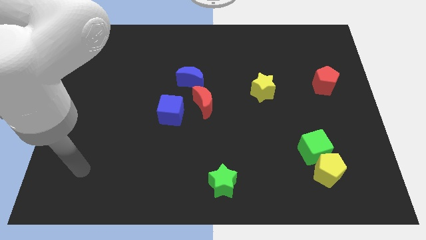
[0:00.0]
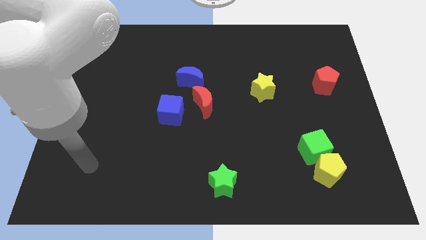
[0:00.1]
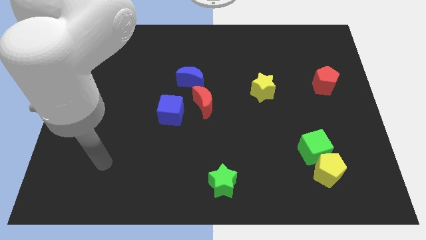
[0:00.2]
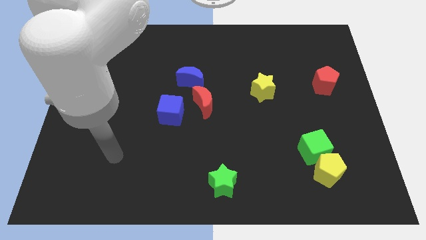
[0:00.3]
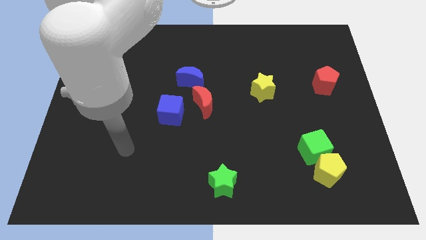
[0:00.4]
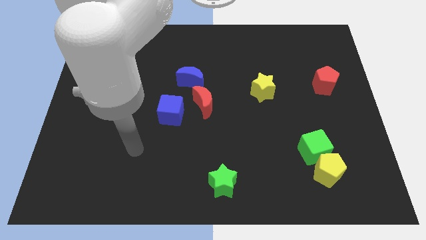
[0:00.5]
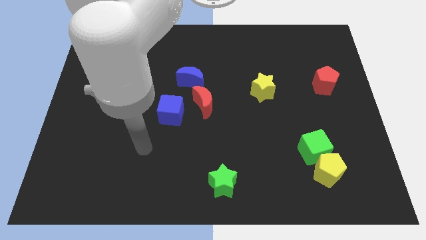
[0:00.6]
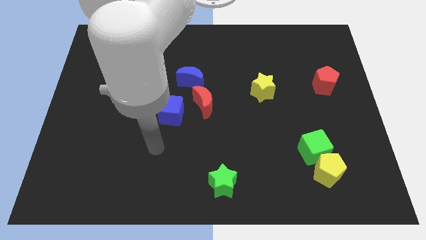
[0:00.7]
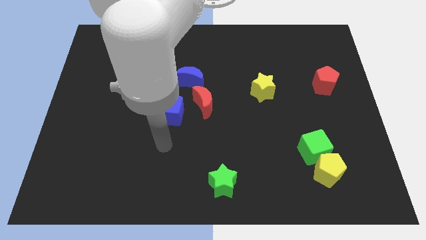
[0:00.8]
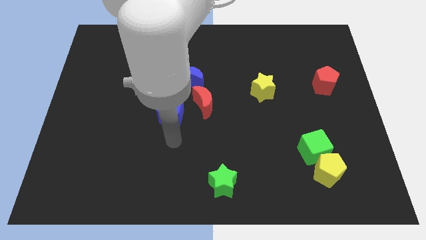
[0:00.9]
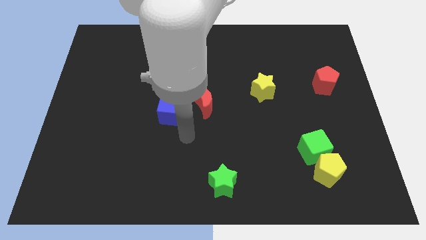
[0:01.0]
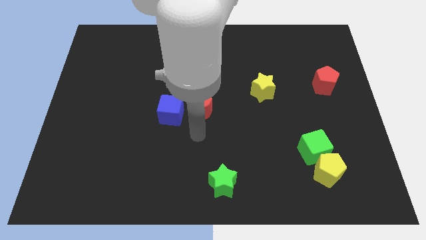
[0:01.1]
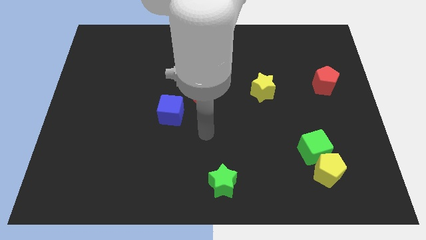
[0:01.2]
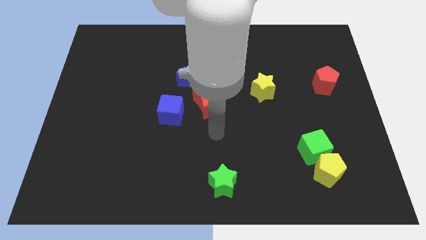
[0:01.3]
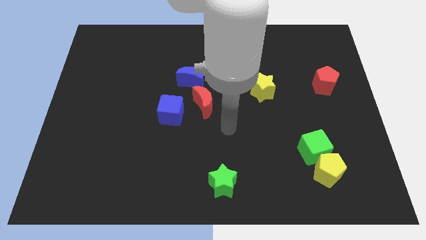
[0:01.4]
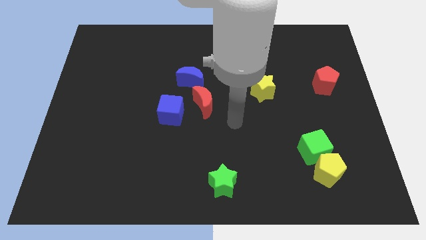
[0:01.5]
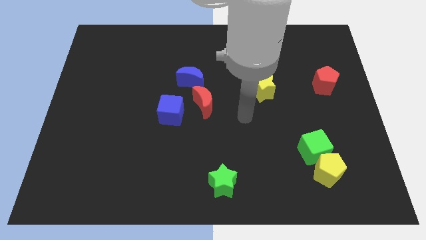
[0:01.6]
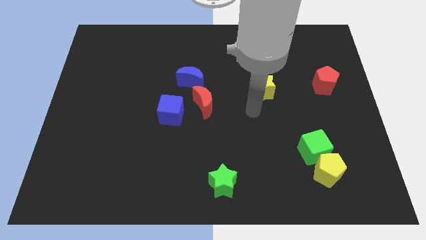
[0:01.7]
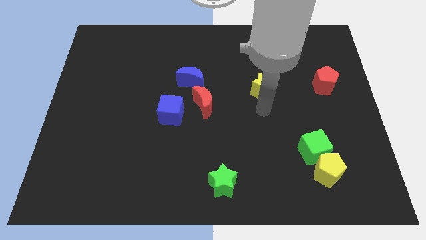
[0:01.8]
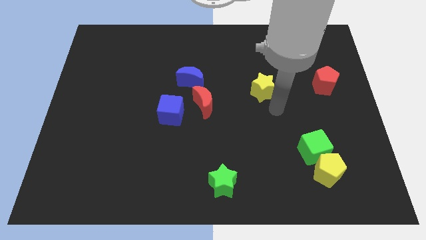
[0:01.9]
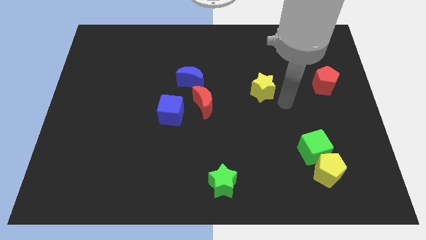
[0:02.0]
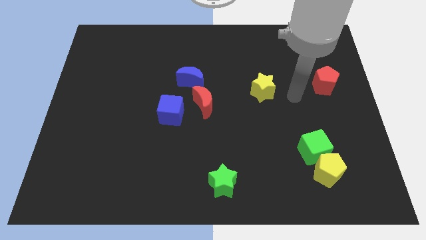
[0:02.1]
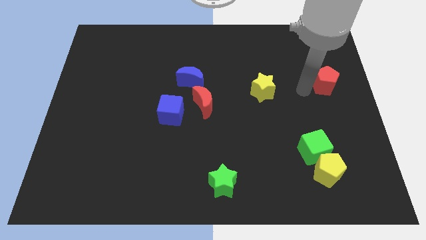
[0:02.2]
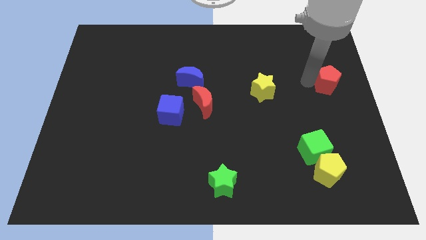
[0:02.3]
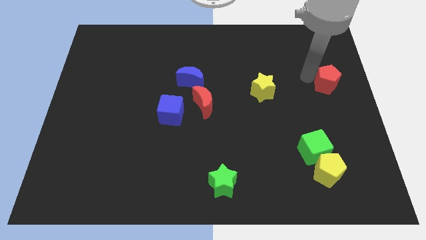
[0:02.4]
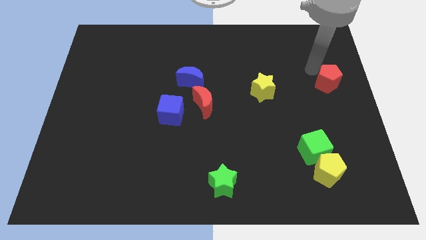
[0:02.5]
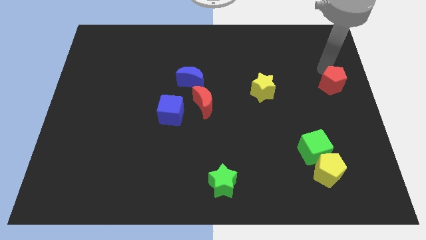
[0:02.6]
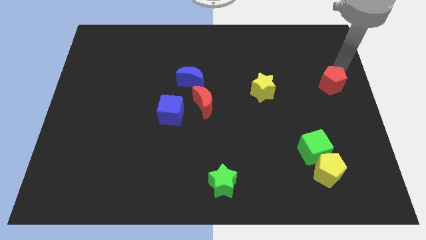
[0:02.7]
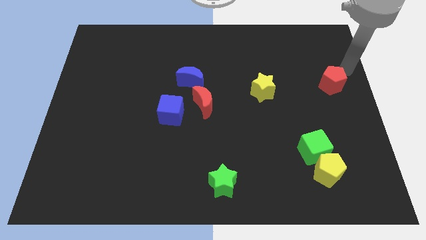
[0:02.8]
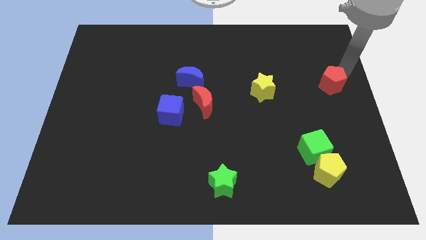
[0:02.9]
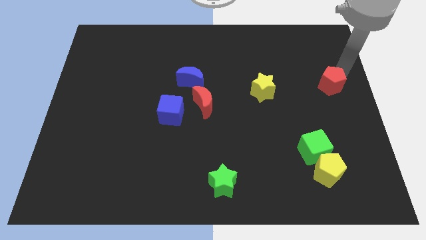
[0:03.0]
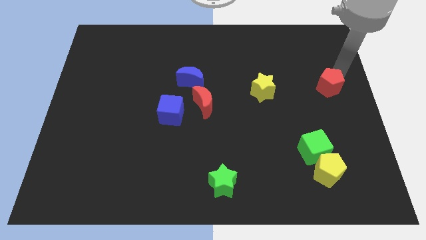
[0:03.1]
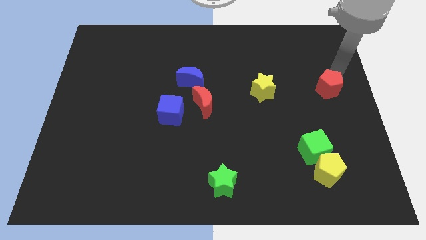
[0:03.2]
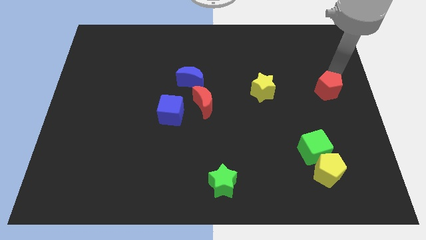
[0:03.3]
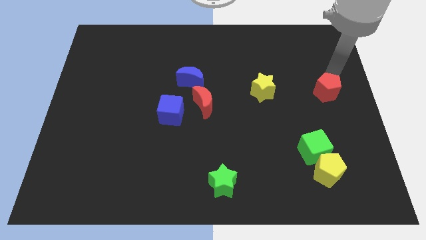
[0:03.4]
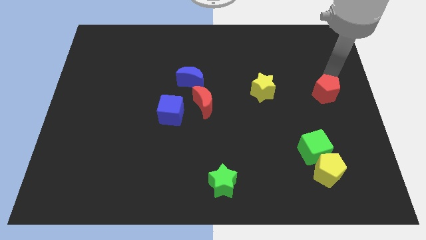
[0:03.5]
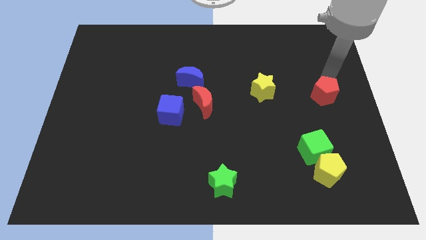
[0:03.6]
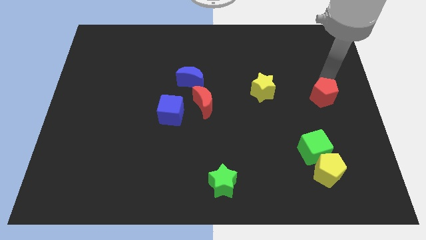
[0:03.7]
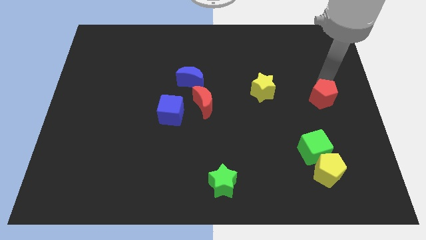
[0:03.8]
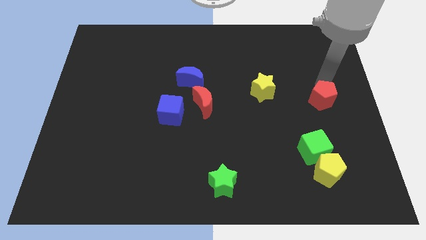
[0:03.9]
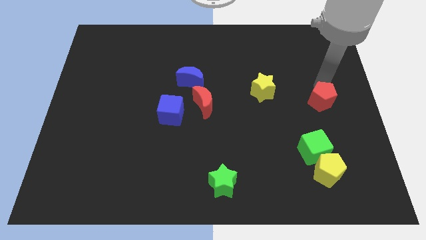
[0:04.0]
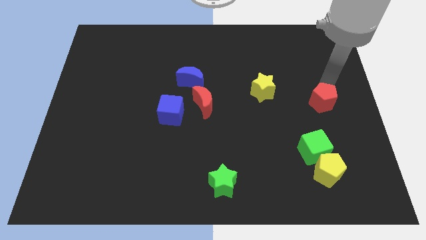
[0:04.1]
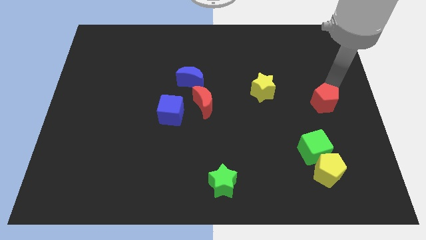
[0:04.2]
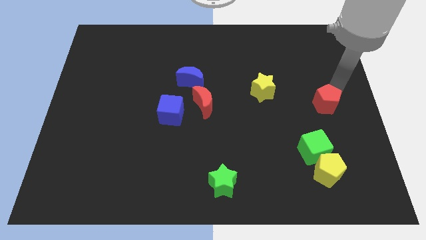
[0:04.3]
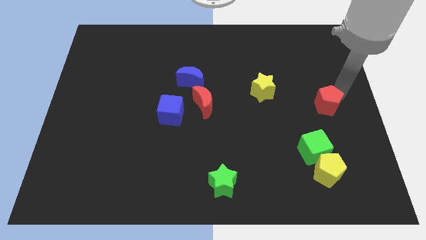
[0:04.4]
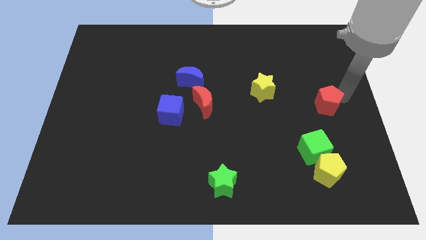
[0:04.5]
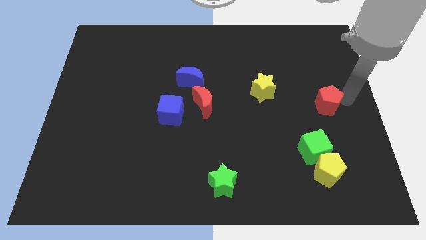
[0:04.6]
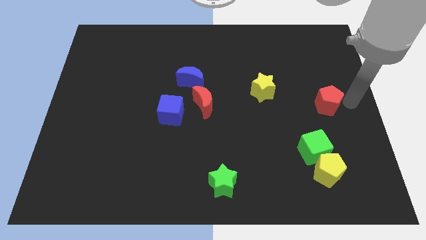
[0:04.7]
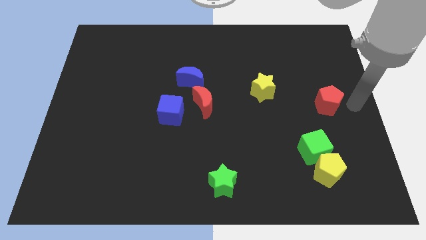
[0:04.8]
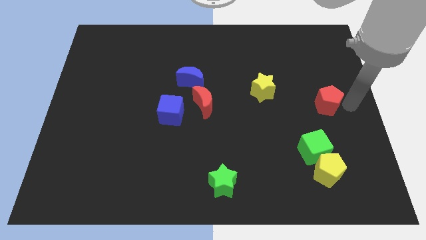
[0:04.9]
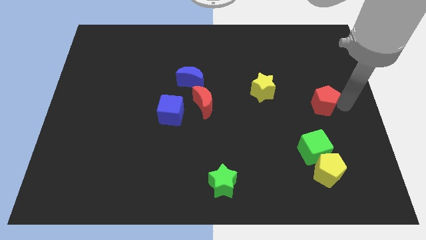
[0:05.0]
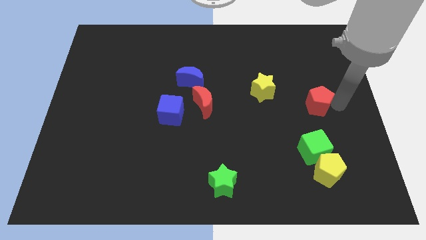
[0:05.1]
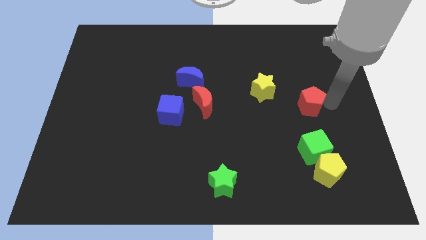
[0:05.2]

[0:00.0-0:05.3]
move the red pentagon downwards and then to the left a bit

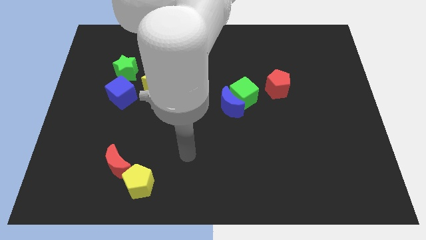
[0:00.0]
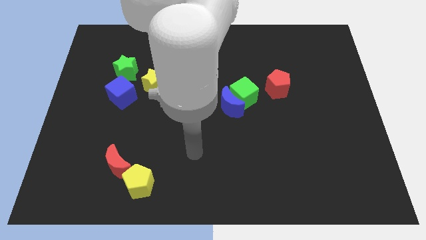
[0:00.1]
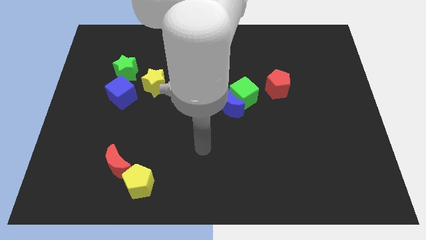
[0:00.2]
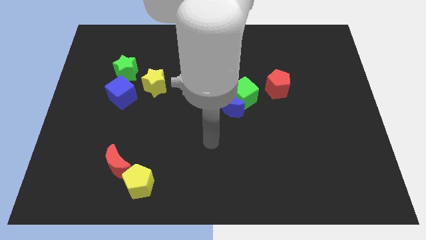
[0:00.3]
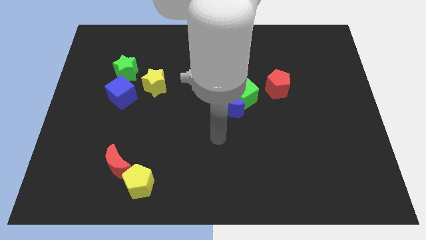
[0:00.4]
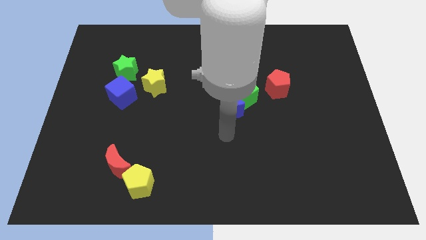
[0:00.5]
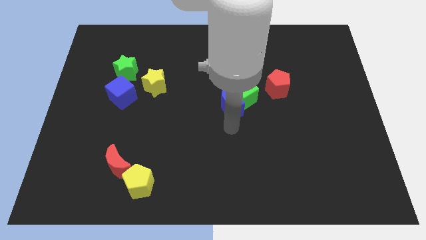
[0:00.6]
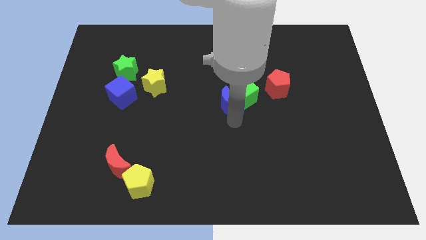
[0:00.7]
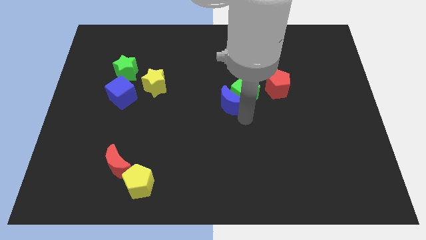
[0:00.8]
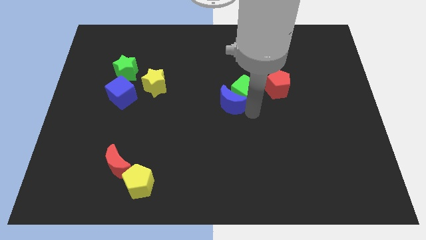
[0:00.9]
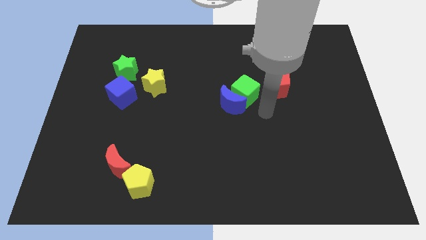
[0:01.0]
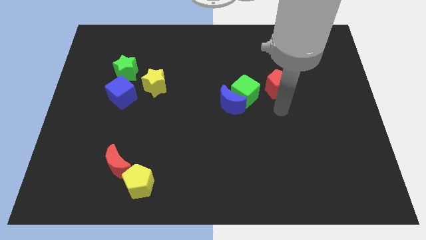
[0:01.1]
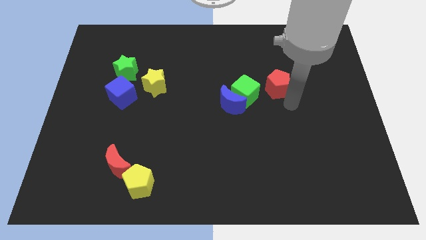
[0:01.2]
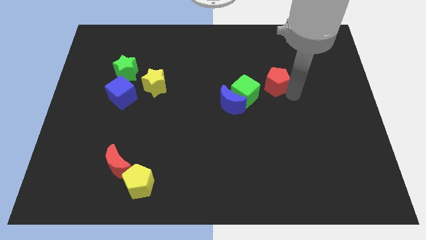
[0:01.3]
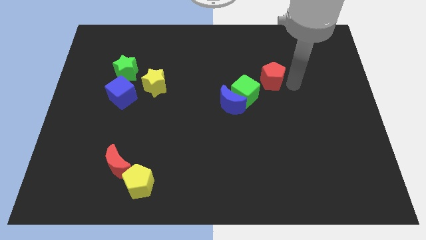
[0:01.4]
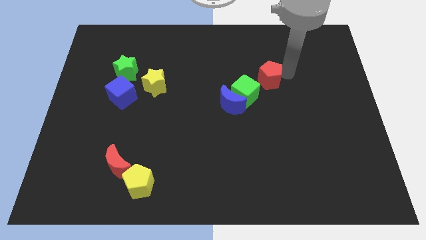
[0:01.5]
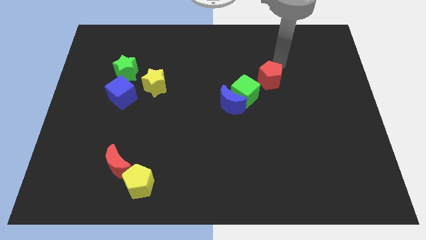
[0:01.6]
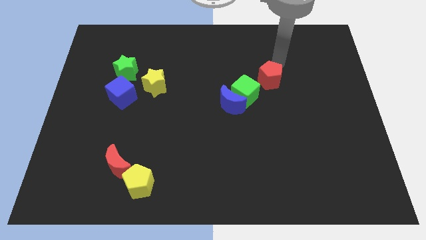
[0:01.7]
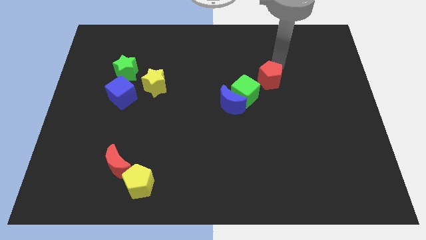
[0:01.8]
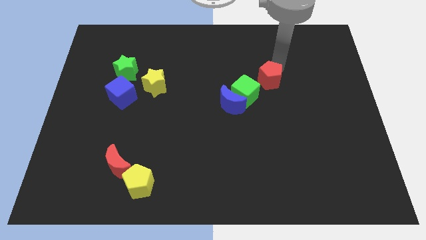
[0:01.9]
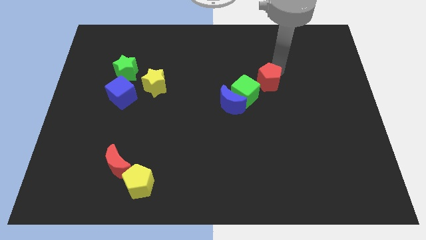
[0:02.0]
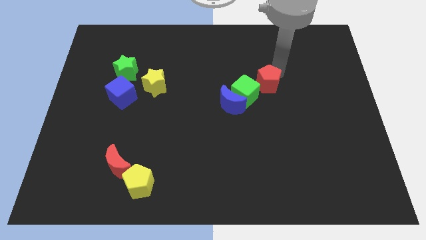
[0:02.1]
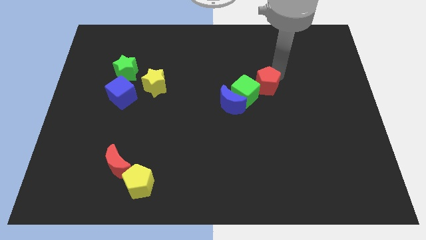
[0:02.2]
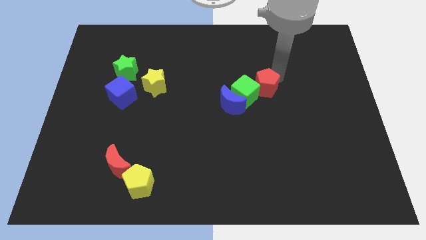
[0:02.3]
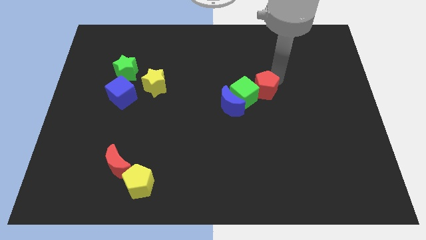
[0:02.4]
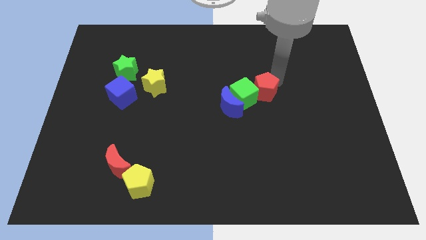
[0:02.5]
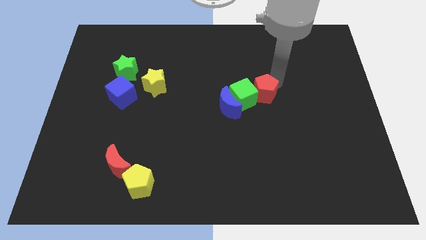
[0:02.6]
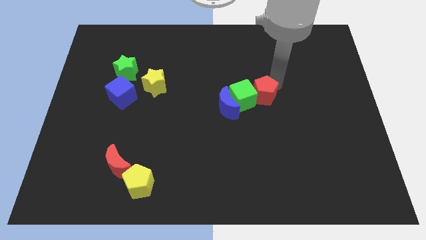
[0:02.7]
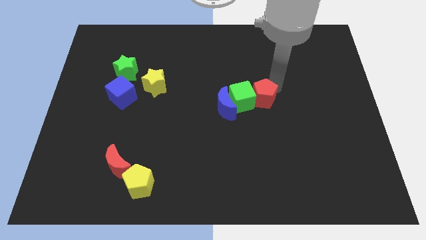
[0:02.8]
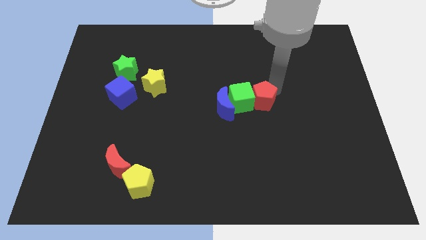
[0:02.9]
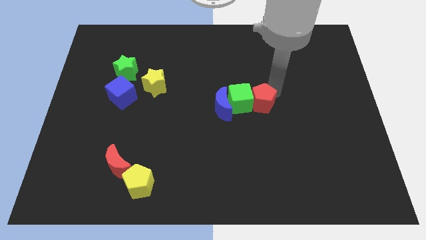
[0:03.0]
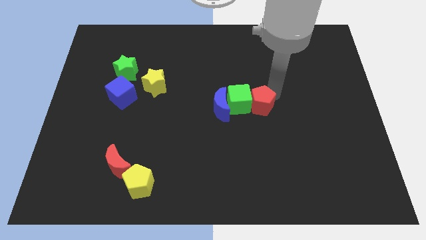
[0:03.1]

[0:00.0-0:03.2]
move the red pentagon downwards and left a bit

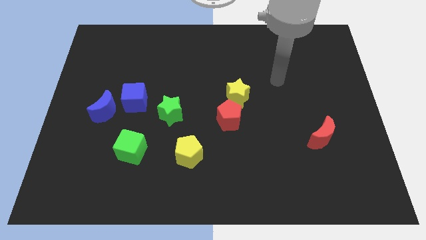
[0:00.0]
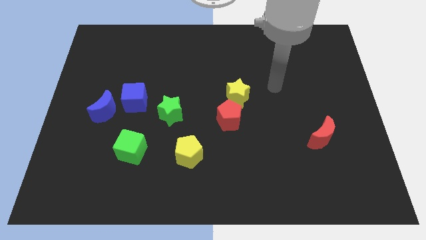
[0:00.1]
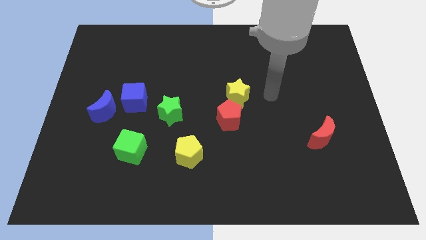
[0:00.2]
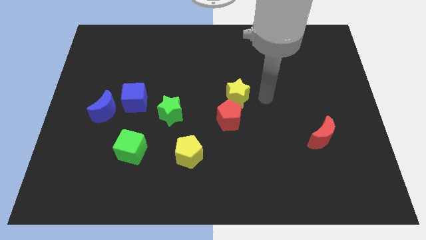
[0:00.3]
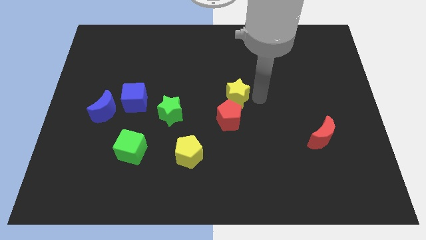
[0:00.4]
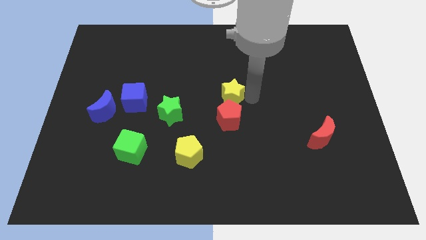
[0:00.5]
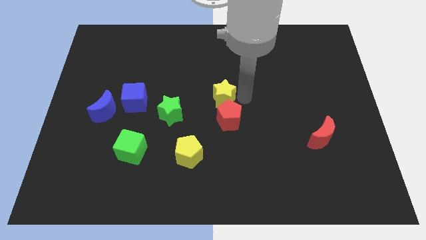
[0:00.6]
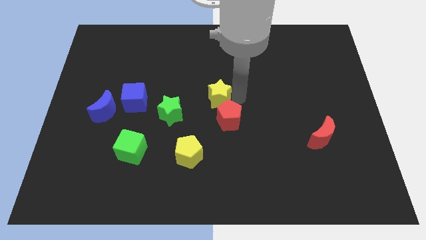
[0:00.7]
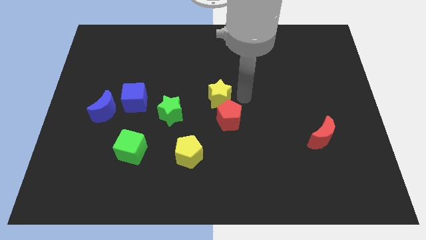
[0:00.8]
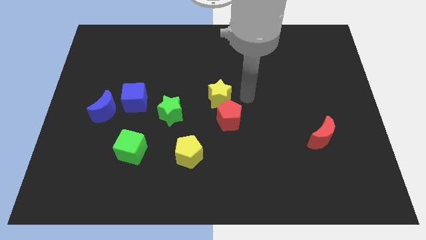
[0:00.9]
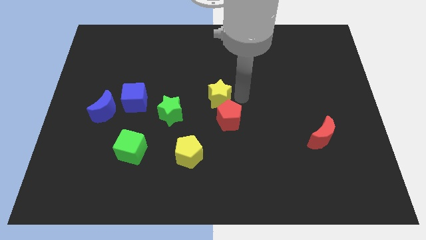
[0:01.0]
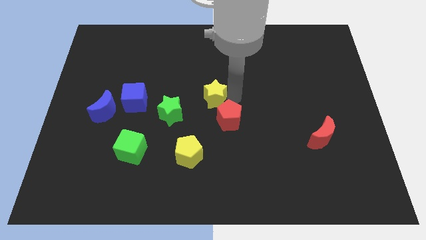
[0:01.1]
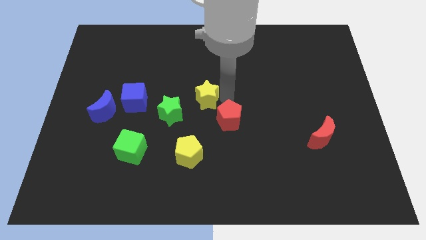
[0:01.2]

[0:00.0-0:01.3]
slightly move the yellow star left
